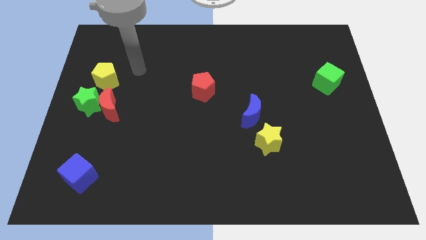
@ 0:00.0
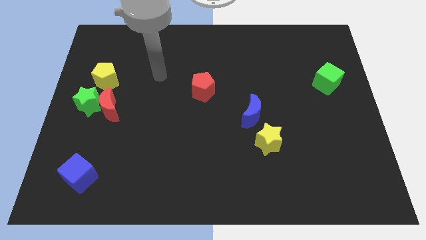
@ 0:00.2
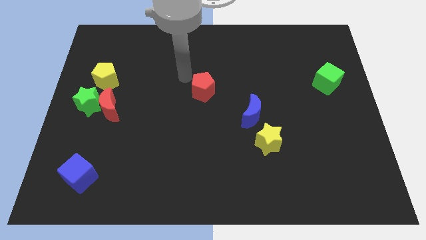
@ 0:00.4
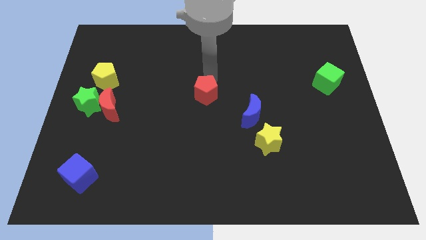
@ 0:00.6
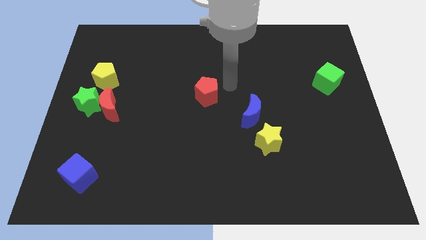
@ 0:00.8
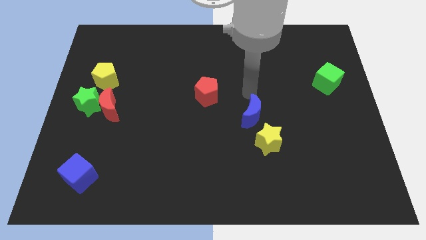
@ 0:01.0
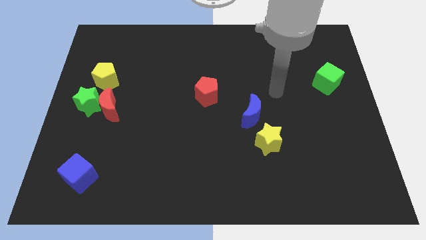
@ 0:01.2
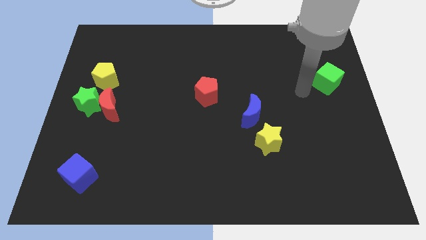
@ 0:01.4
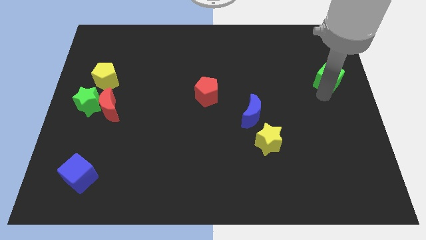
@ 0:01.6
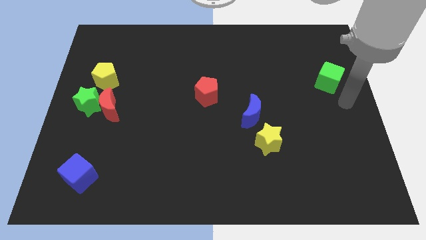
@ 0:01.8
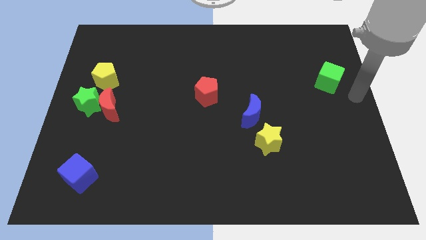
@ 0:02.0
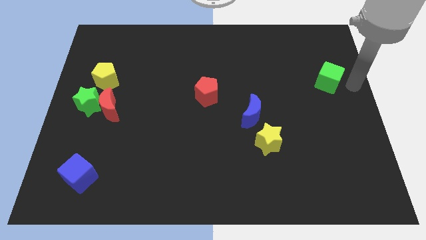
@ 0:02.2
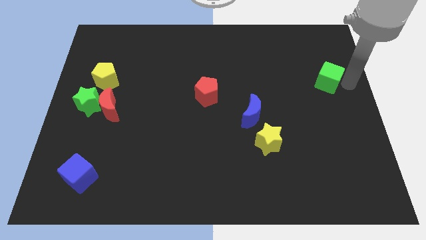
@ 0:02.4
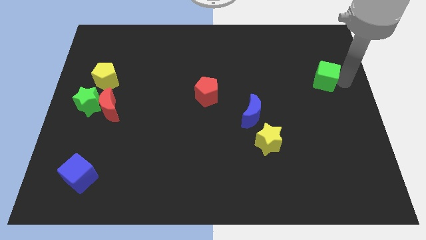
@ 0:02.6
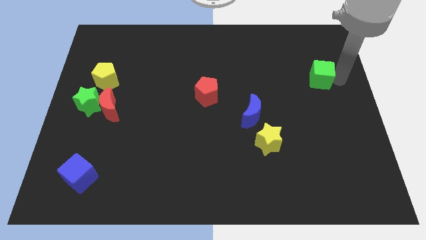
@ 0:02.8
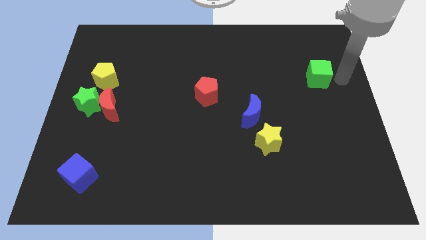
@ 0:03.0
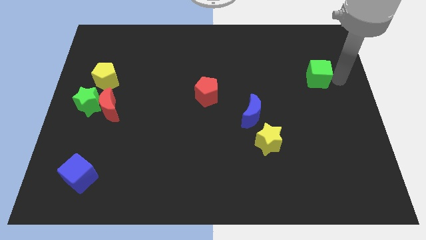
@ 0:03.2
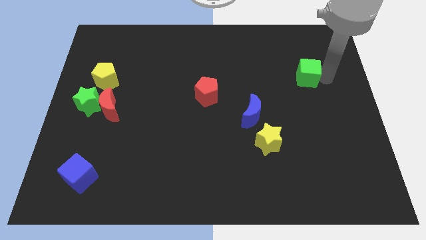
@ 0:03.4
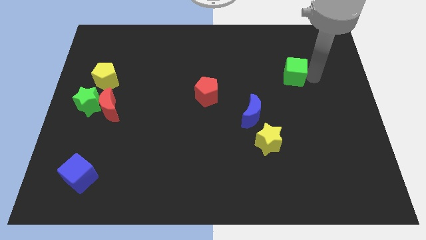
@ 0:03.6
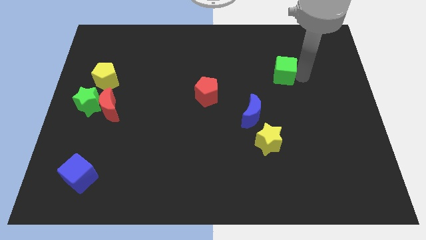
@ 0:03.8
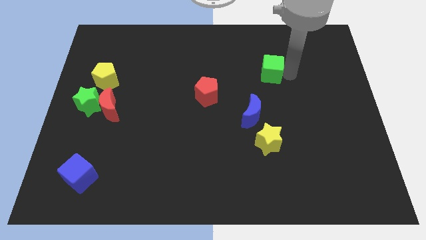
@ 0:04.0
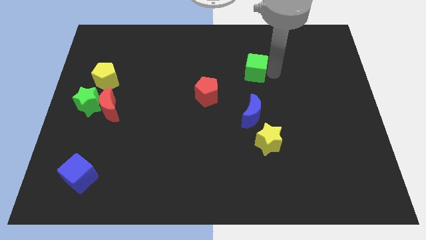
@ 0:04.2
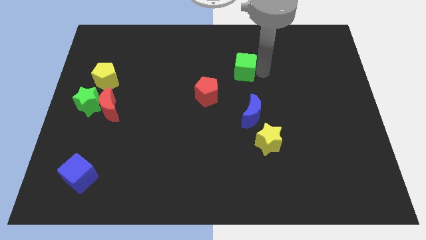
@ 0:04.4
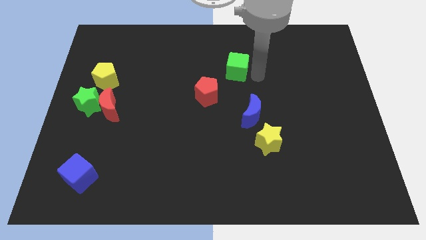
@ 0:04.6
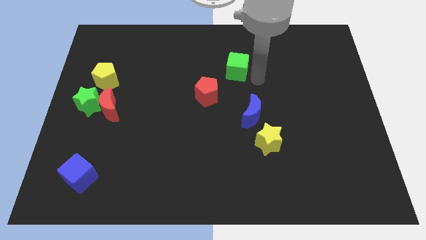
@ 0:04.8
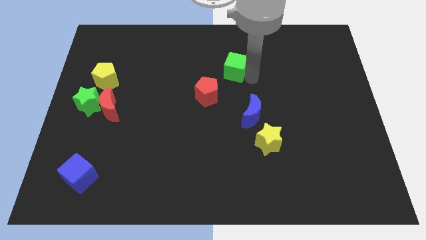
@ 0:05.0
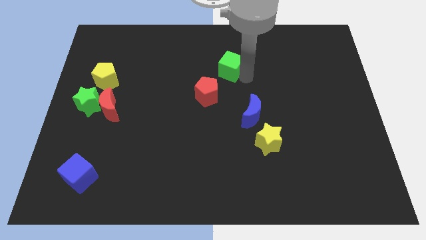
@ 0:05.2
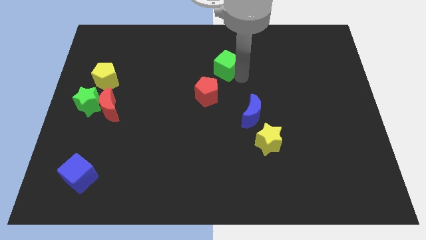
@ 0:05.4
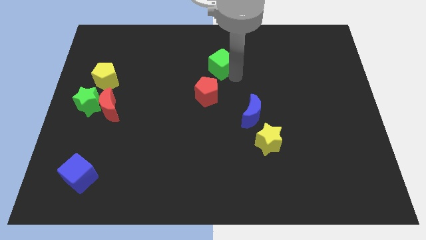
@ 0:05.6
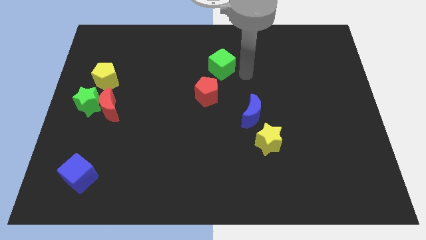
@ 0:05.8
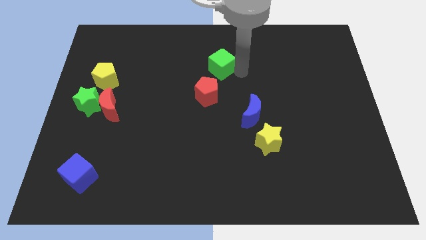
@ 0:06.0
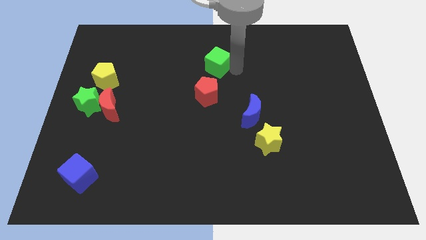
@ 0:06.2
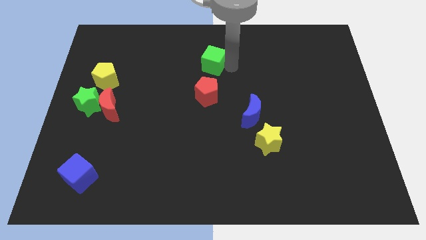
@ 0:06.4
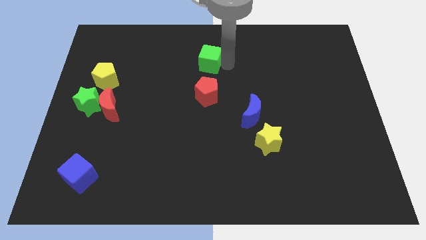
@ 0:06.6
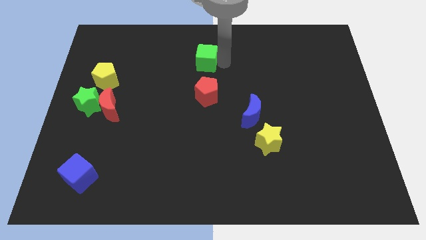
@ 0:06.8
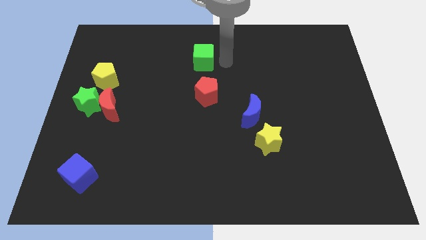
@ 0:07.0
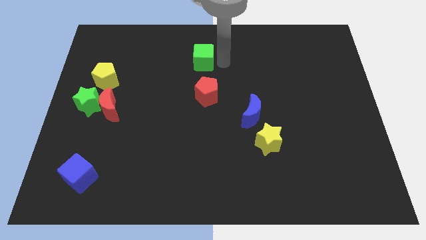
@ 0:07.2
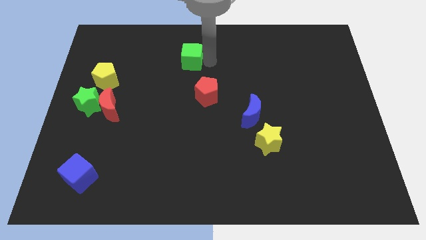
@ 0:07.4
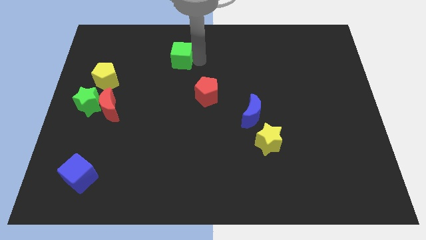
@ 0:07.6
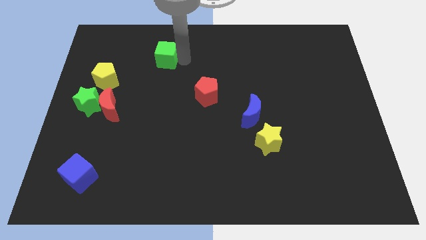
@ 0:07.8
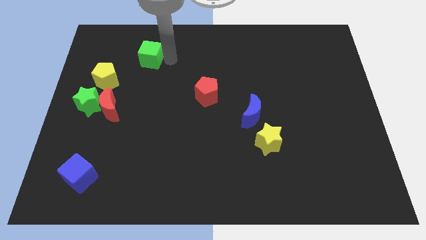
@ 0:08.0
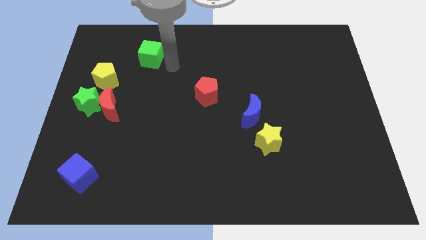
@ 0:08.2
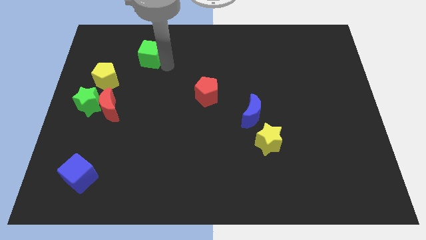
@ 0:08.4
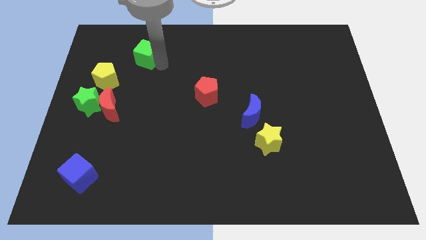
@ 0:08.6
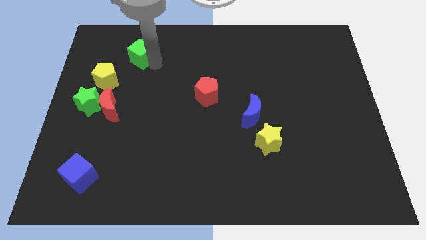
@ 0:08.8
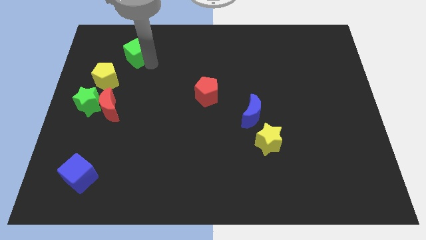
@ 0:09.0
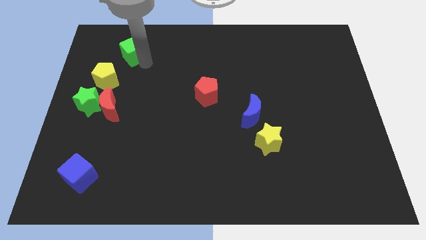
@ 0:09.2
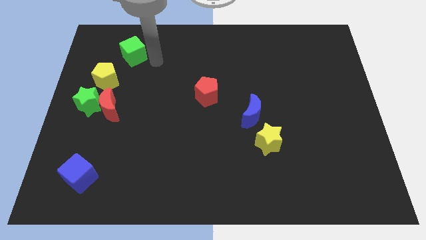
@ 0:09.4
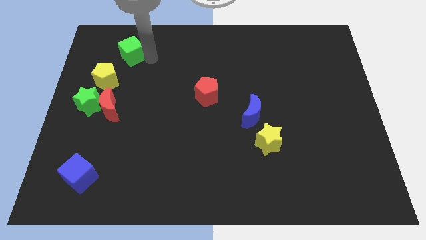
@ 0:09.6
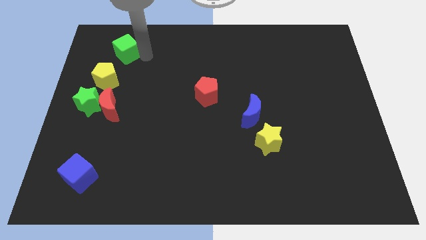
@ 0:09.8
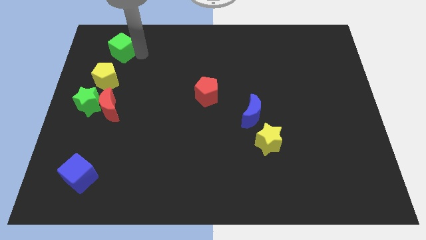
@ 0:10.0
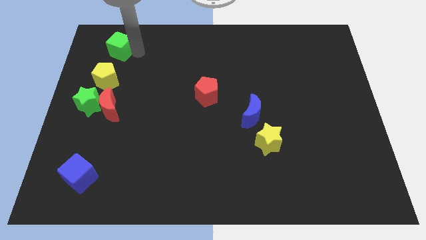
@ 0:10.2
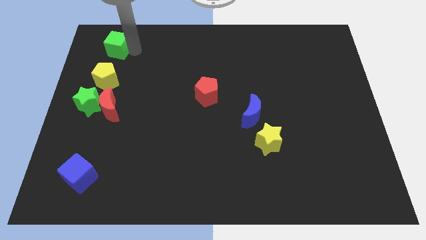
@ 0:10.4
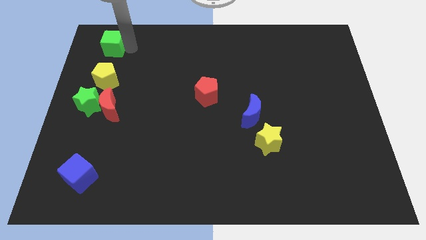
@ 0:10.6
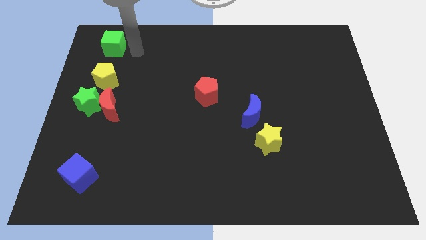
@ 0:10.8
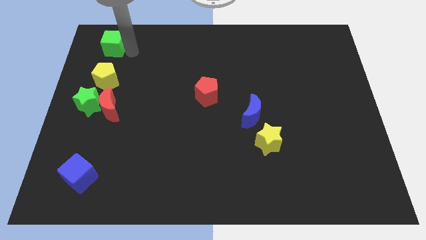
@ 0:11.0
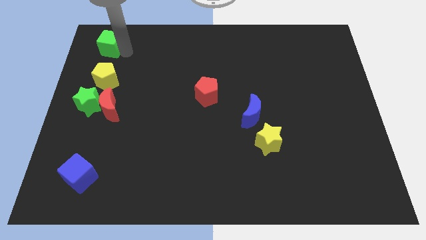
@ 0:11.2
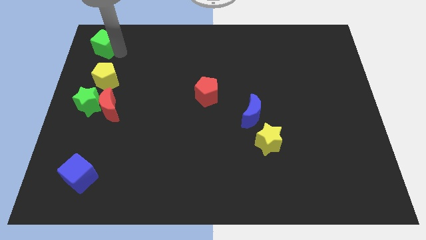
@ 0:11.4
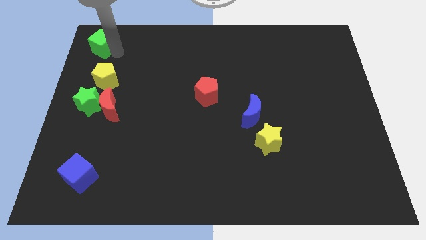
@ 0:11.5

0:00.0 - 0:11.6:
put the green cube to the top left corner

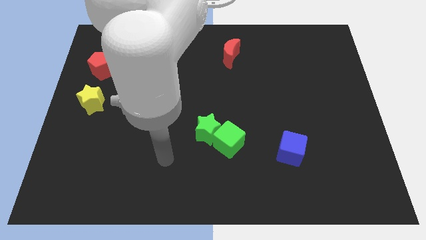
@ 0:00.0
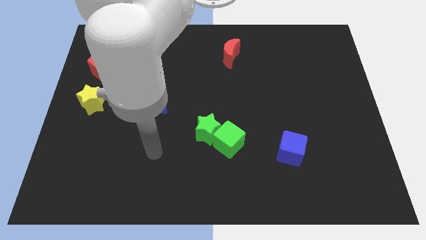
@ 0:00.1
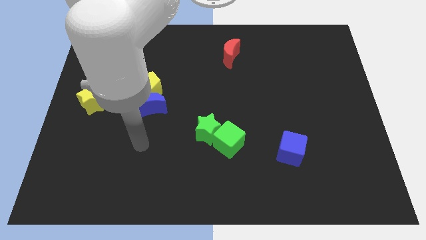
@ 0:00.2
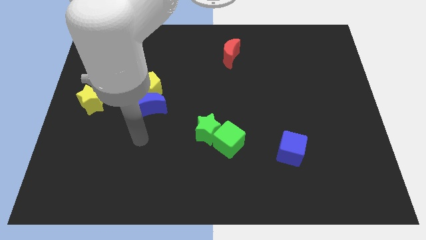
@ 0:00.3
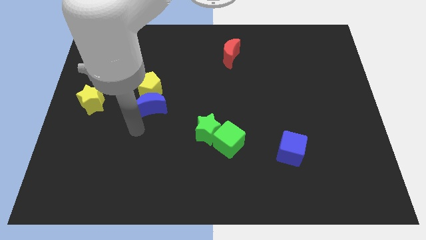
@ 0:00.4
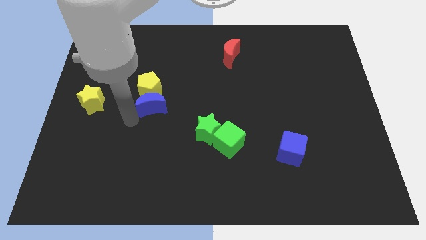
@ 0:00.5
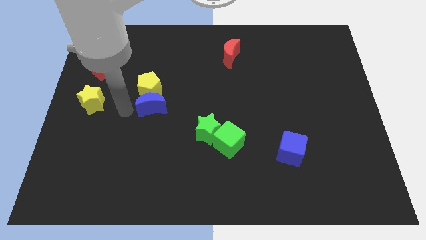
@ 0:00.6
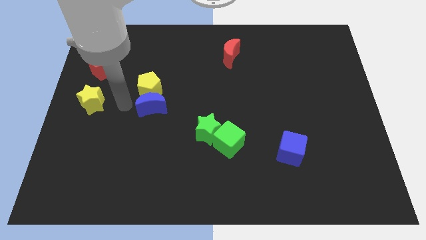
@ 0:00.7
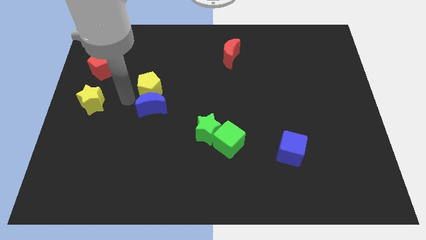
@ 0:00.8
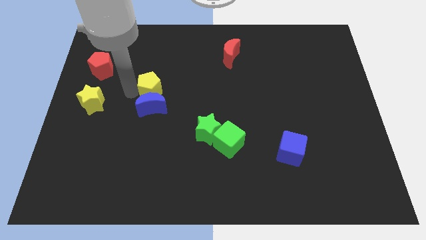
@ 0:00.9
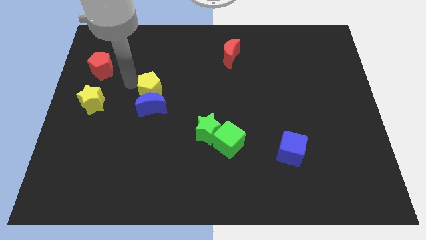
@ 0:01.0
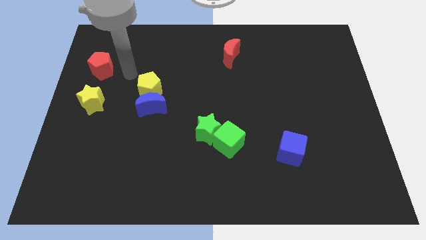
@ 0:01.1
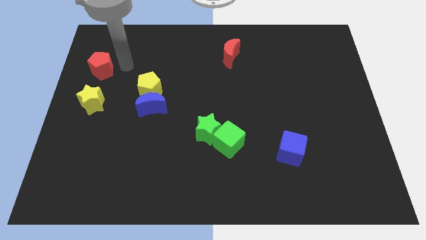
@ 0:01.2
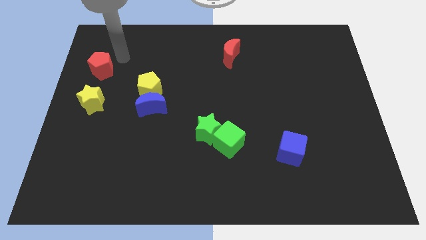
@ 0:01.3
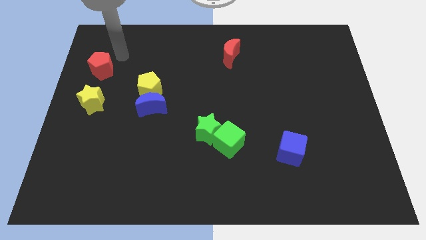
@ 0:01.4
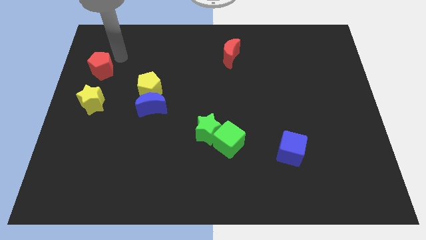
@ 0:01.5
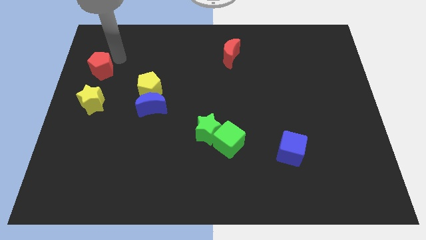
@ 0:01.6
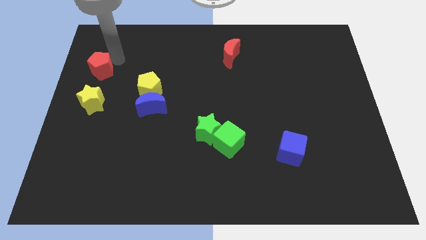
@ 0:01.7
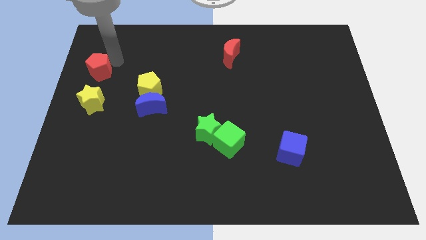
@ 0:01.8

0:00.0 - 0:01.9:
slide the red pentagon to the center left
